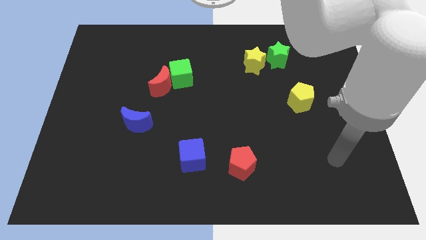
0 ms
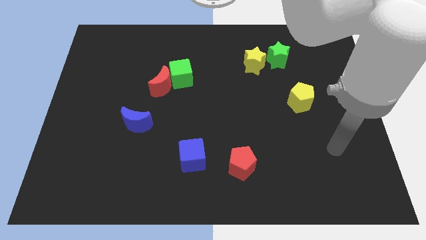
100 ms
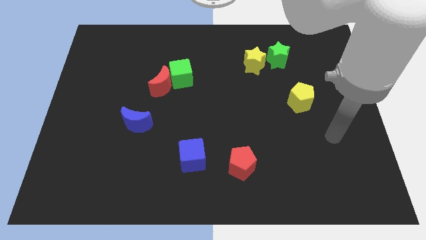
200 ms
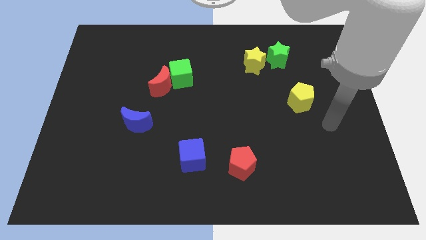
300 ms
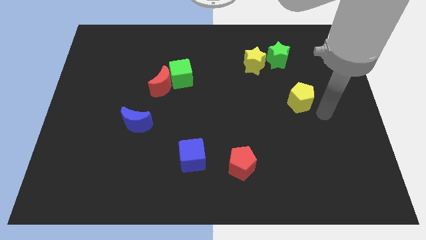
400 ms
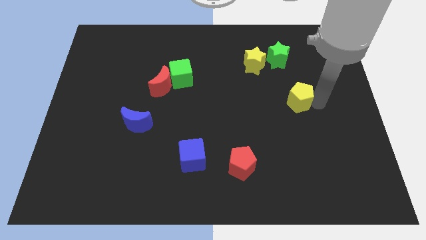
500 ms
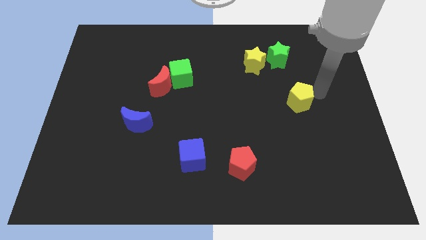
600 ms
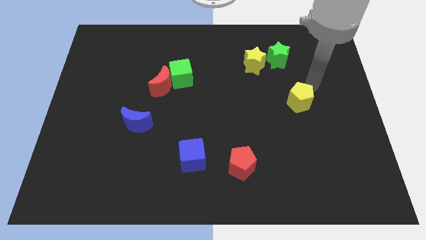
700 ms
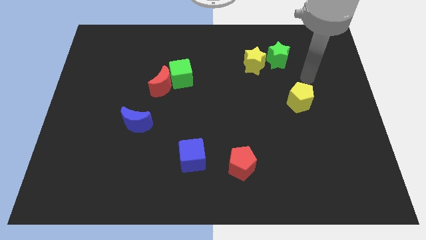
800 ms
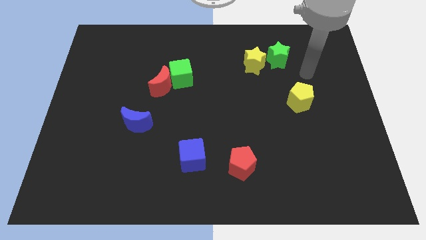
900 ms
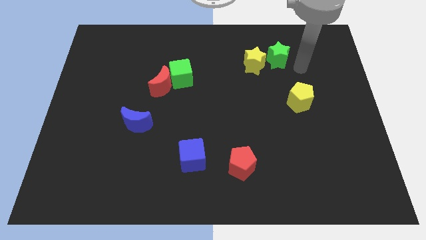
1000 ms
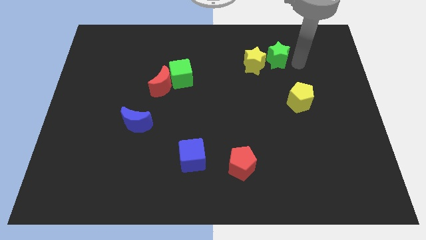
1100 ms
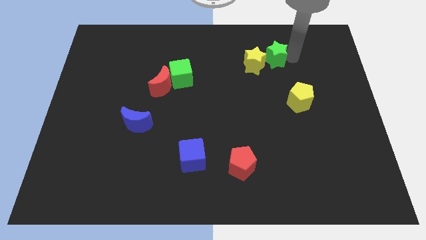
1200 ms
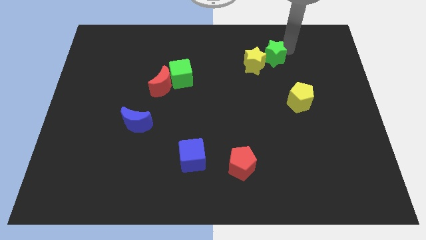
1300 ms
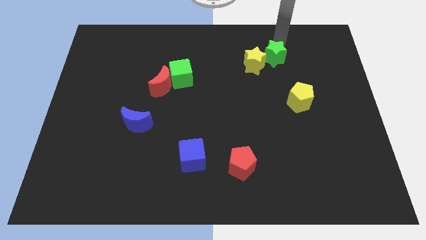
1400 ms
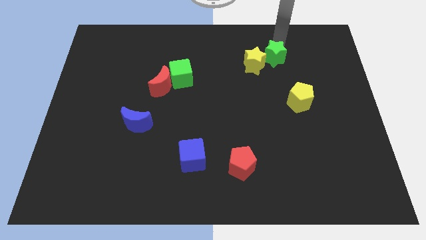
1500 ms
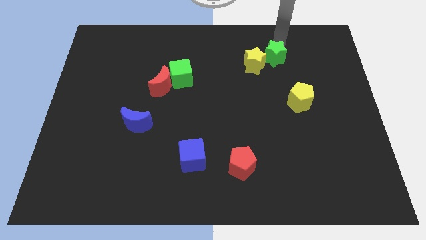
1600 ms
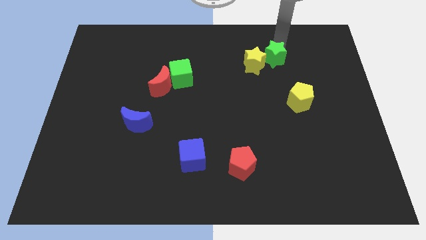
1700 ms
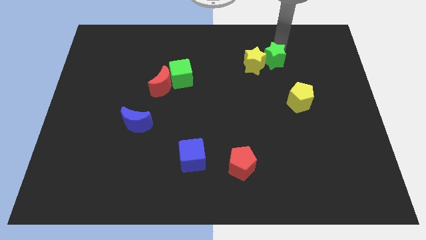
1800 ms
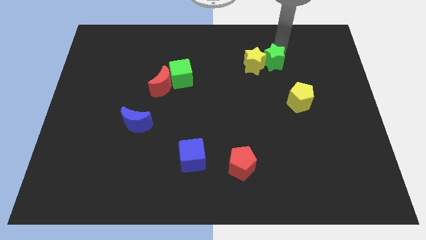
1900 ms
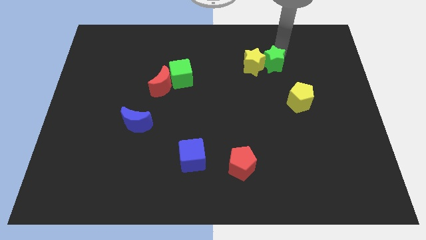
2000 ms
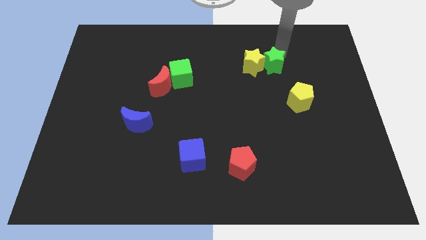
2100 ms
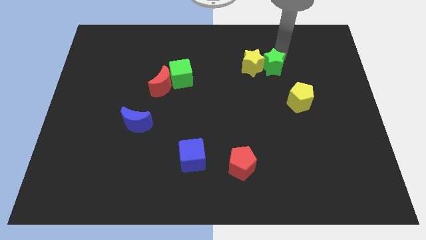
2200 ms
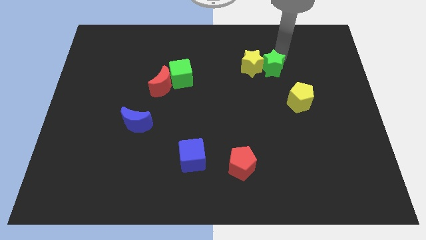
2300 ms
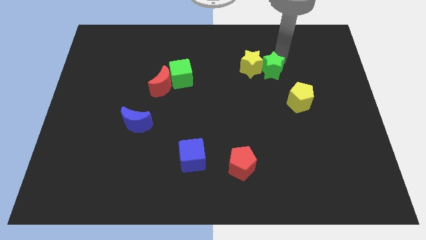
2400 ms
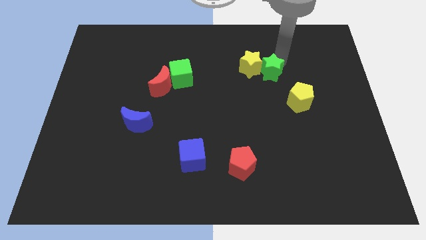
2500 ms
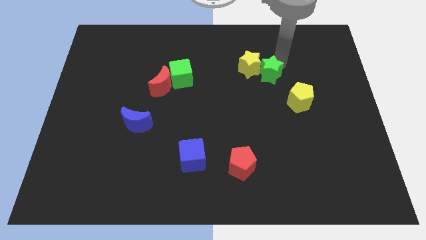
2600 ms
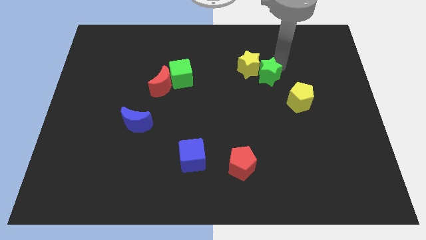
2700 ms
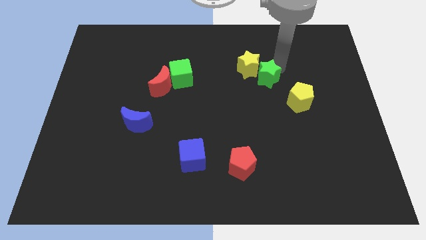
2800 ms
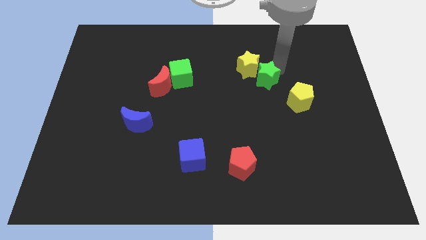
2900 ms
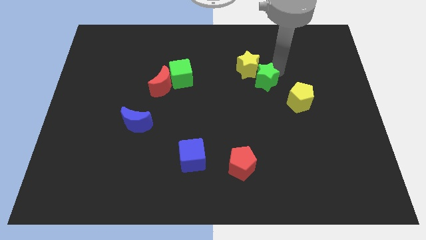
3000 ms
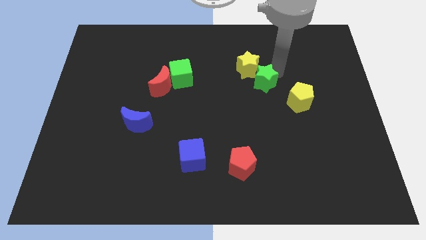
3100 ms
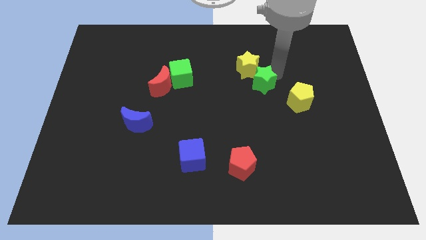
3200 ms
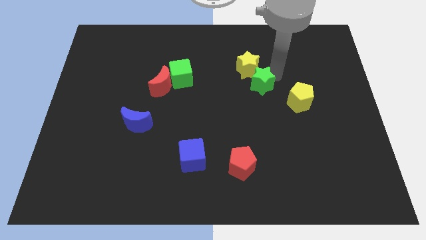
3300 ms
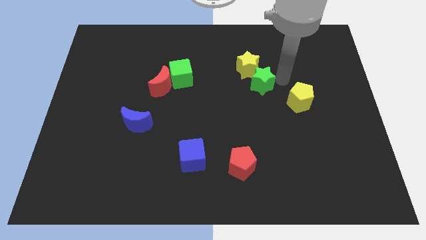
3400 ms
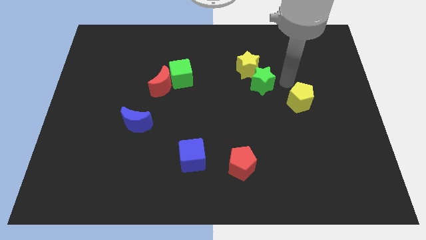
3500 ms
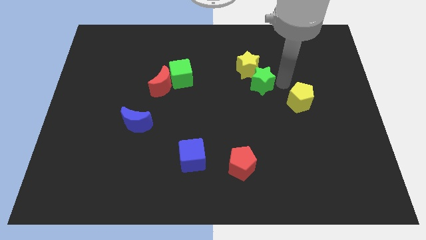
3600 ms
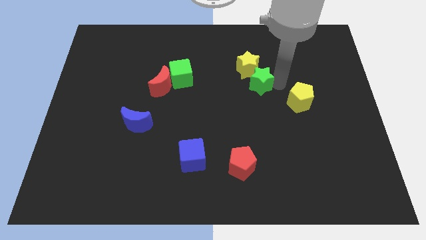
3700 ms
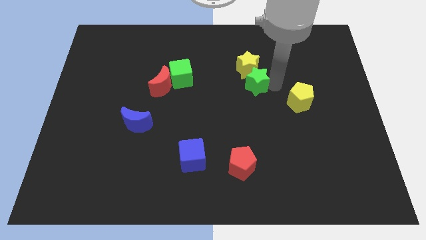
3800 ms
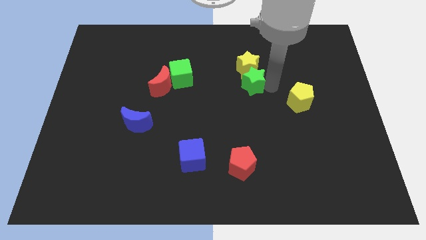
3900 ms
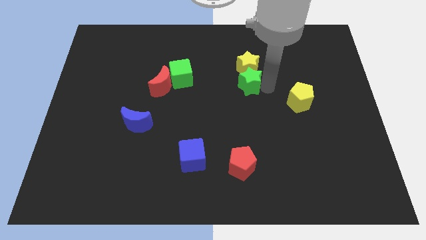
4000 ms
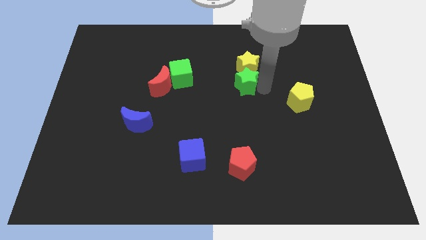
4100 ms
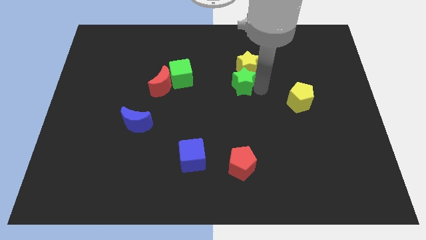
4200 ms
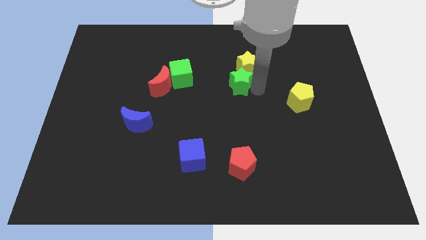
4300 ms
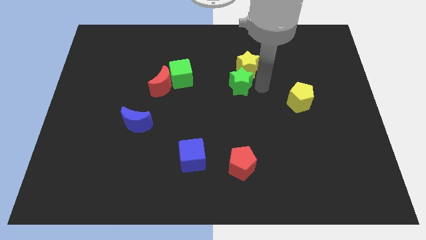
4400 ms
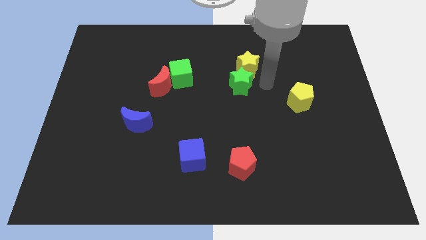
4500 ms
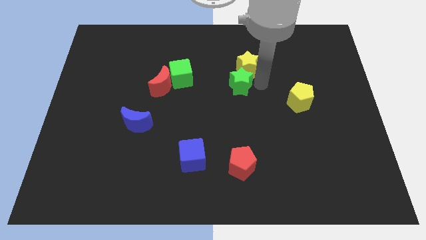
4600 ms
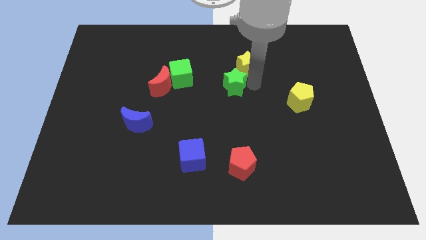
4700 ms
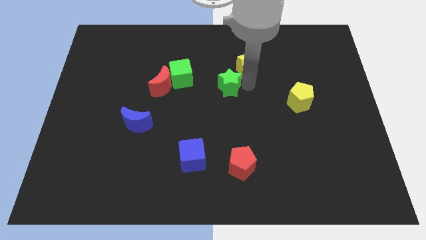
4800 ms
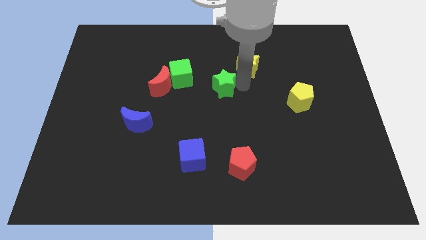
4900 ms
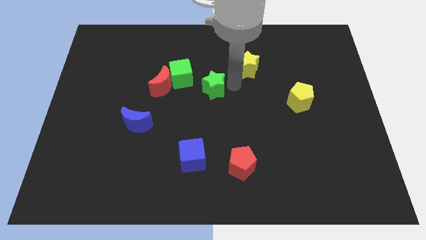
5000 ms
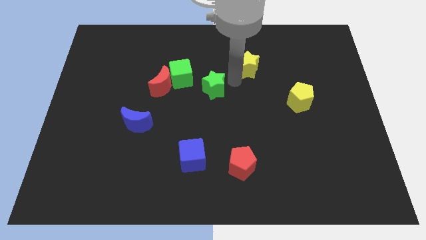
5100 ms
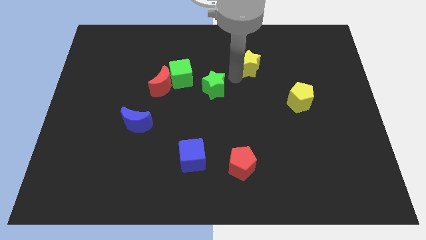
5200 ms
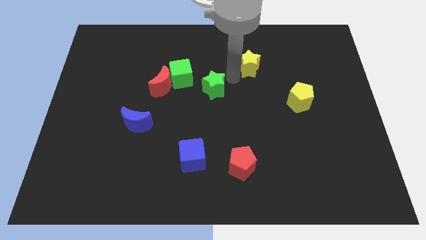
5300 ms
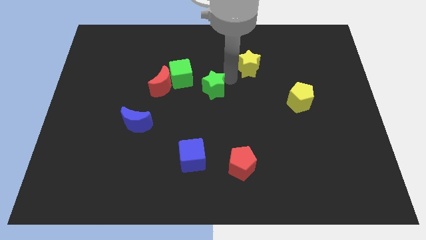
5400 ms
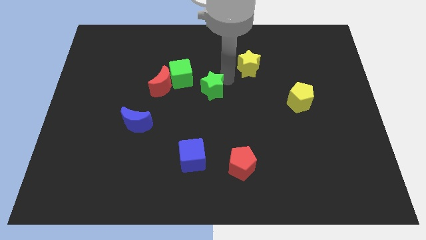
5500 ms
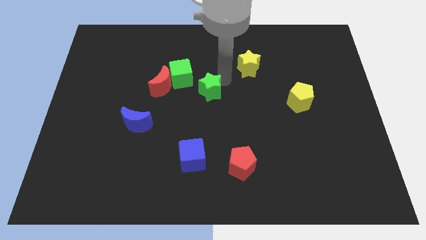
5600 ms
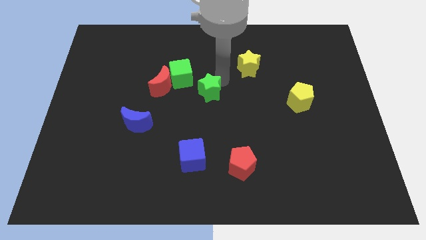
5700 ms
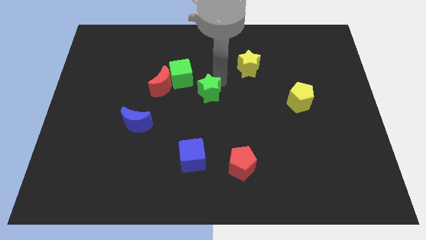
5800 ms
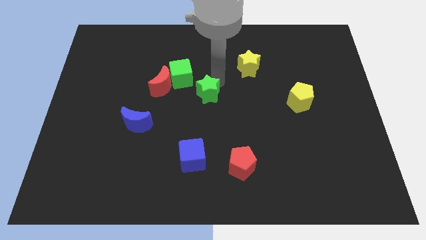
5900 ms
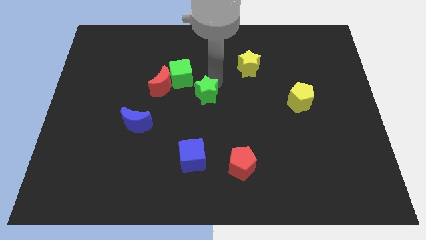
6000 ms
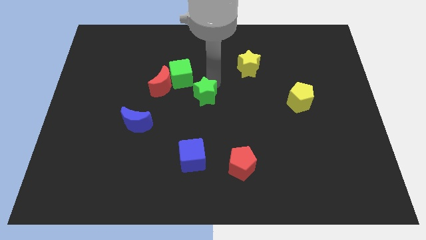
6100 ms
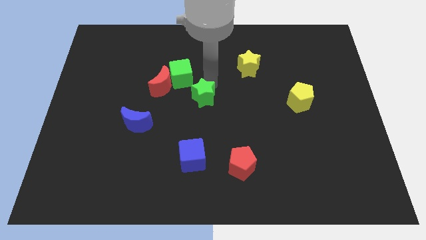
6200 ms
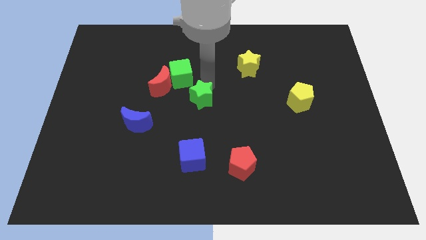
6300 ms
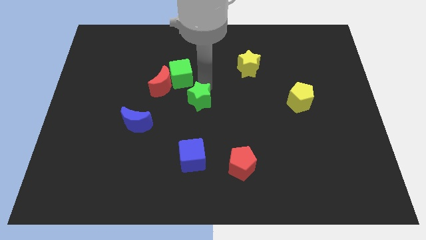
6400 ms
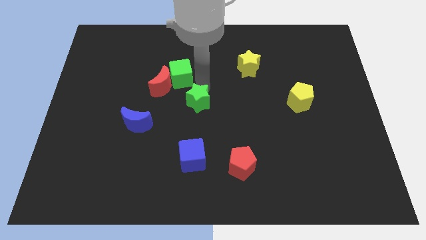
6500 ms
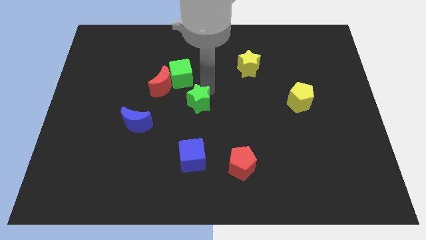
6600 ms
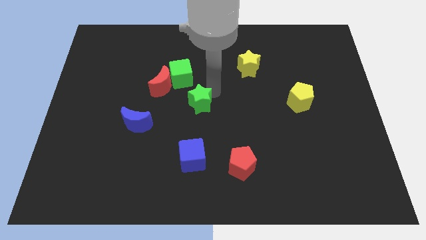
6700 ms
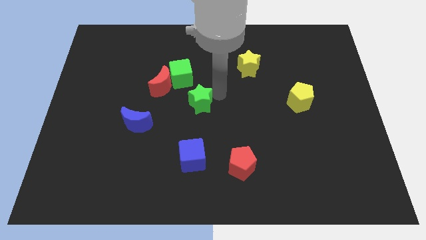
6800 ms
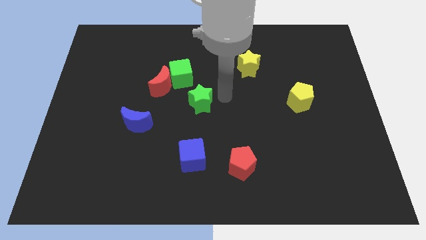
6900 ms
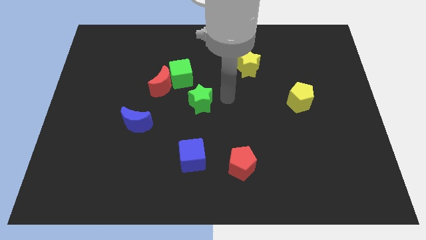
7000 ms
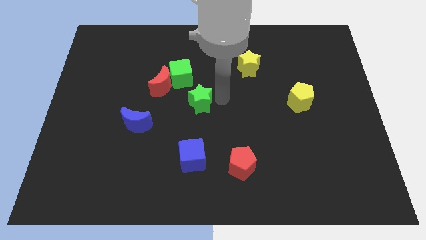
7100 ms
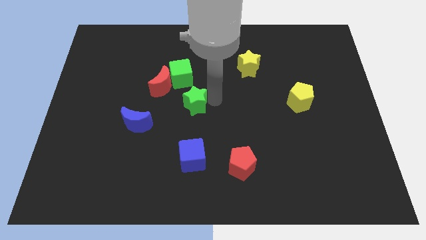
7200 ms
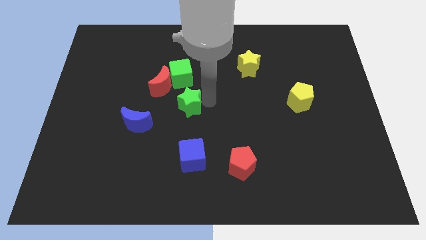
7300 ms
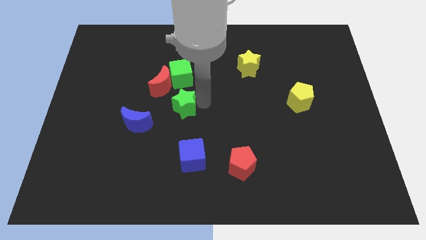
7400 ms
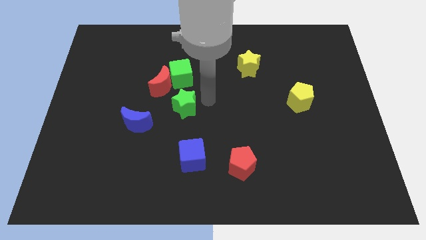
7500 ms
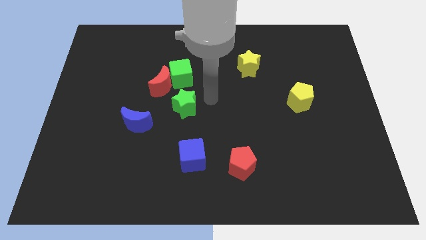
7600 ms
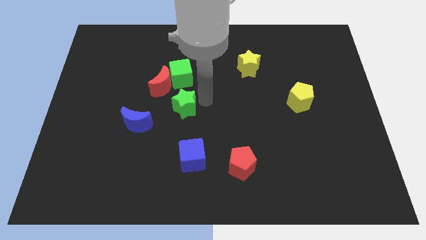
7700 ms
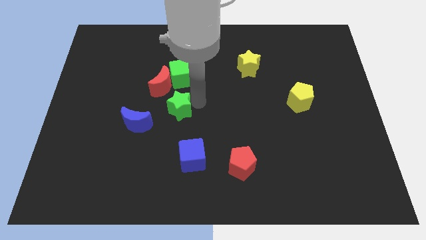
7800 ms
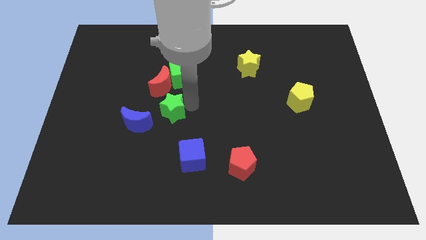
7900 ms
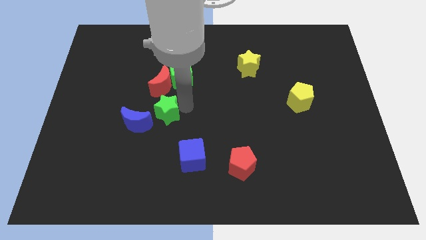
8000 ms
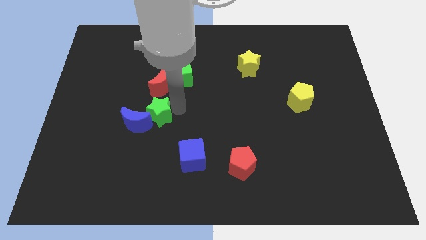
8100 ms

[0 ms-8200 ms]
push the green star towards the blue moon
